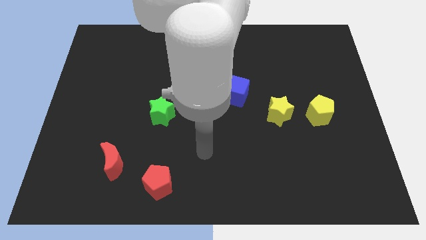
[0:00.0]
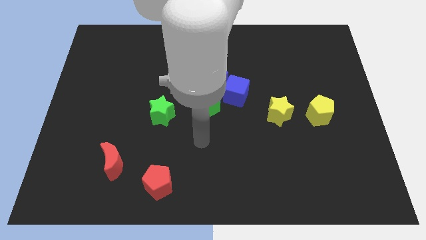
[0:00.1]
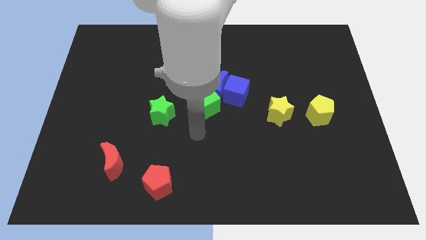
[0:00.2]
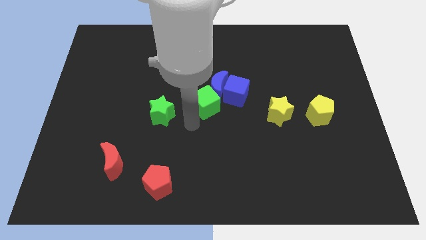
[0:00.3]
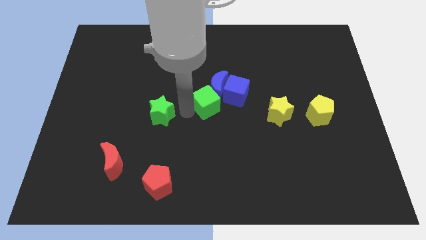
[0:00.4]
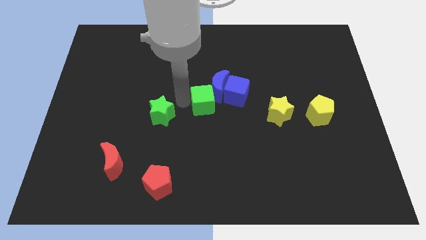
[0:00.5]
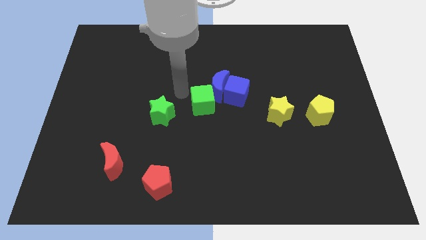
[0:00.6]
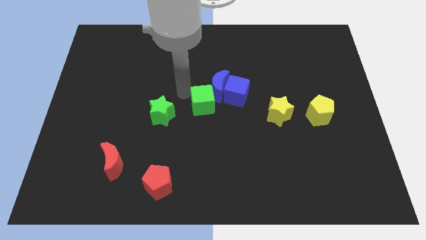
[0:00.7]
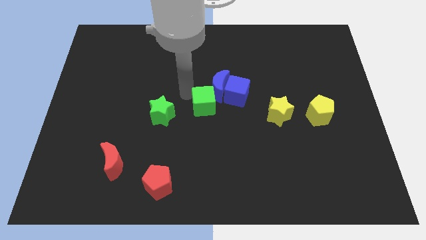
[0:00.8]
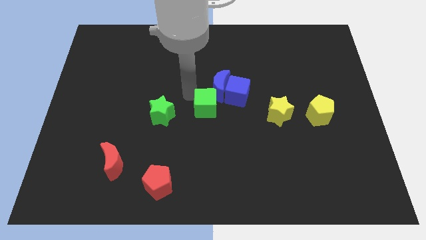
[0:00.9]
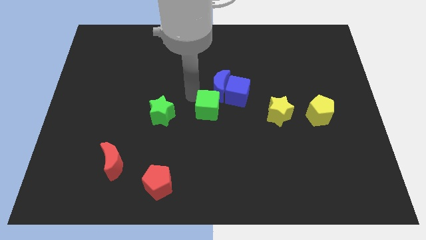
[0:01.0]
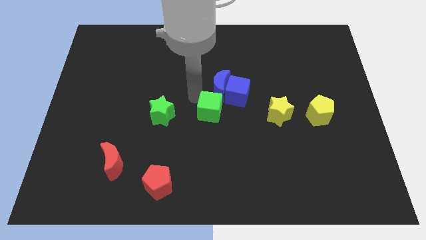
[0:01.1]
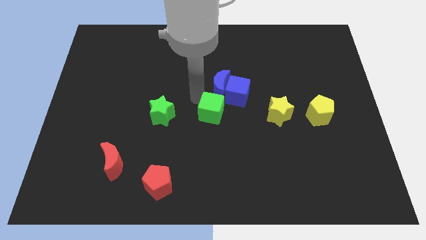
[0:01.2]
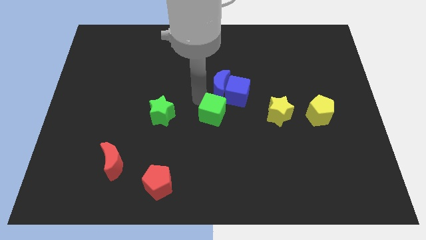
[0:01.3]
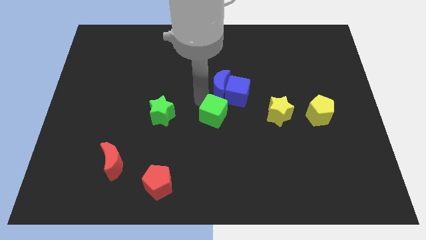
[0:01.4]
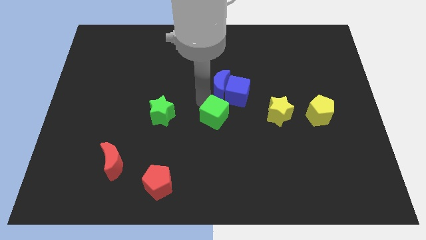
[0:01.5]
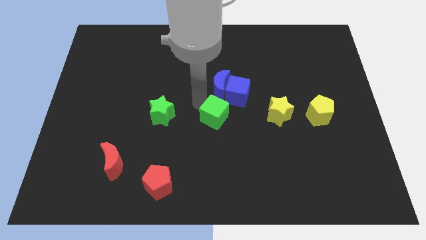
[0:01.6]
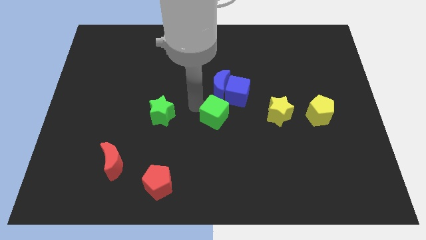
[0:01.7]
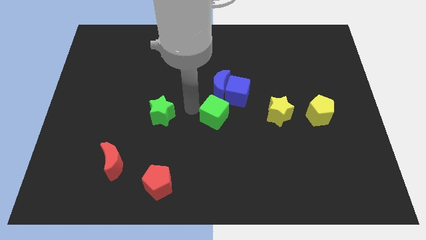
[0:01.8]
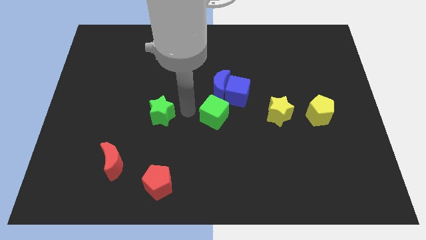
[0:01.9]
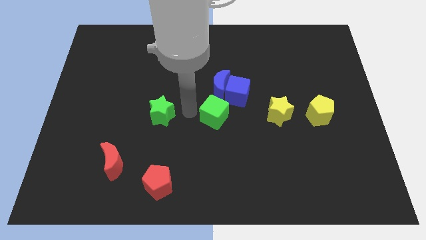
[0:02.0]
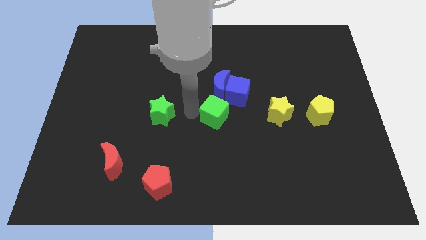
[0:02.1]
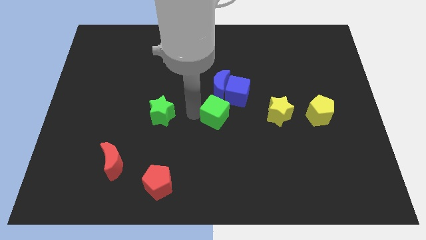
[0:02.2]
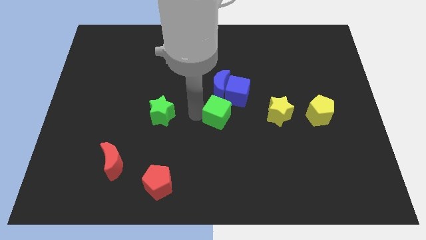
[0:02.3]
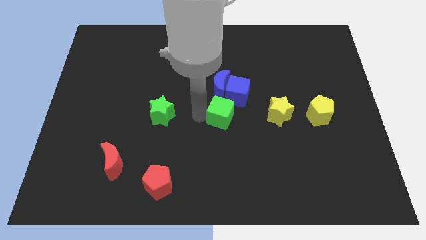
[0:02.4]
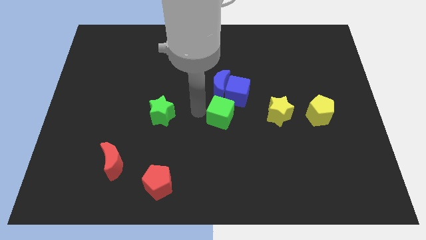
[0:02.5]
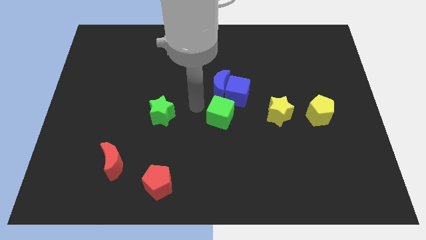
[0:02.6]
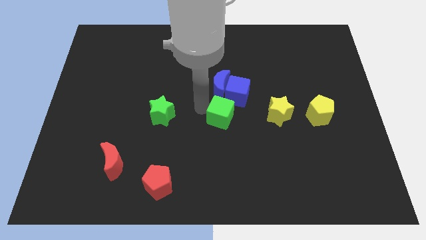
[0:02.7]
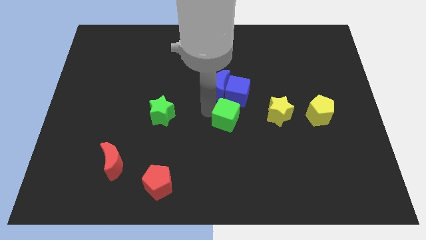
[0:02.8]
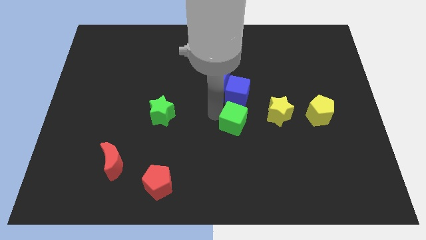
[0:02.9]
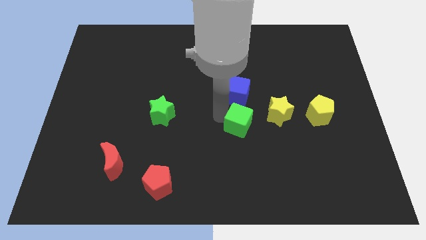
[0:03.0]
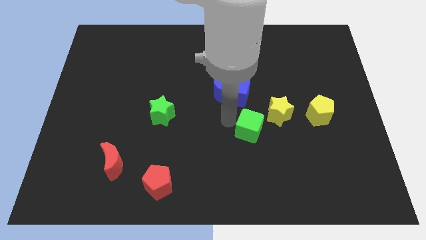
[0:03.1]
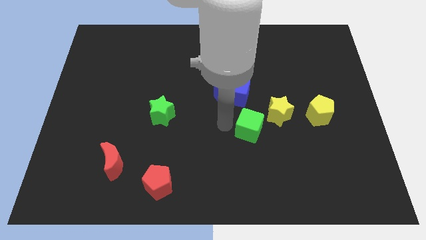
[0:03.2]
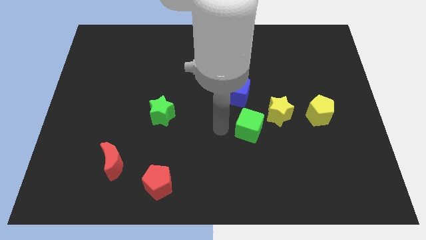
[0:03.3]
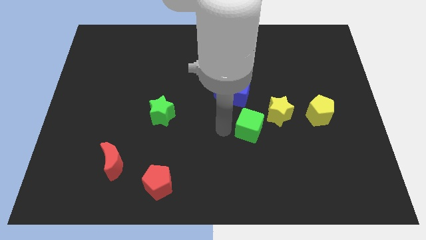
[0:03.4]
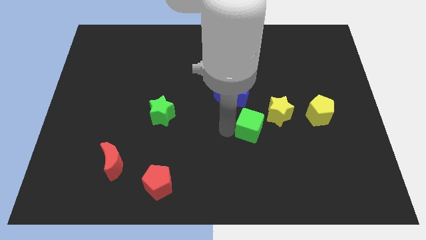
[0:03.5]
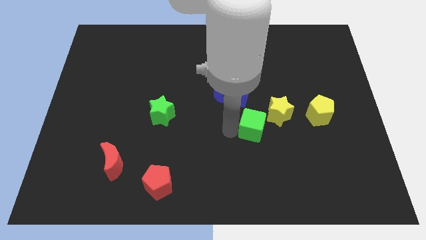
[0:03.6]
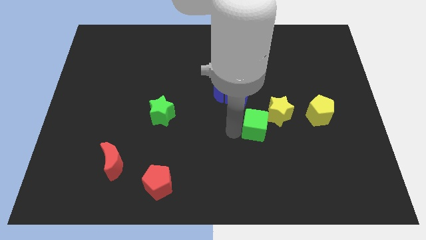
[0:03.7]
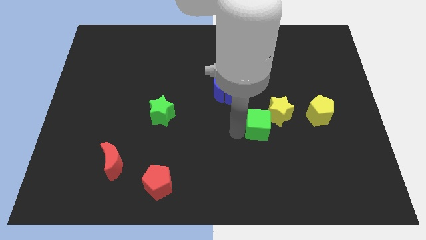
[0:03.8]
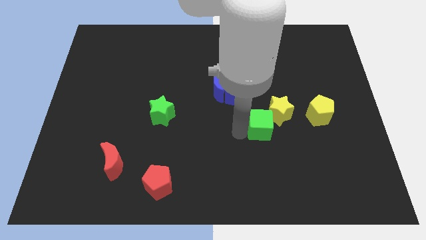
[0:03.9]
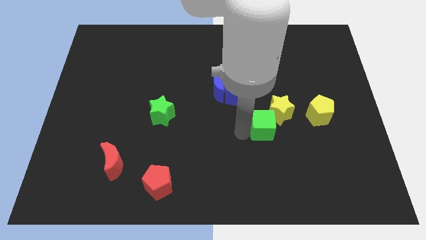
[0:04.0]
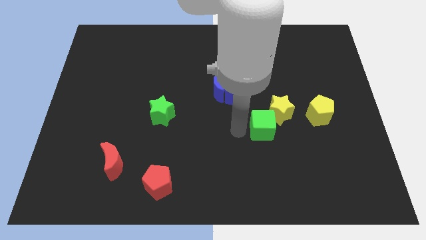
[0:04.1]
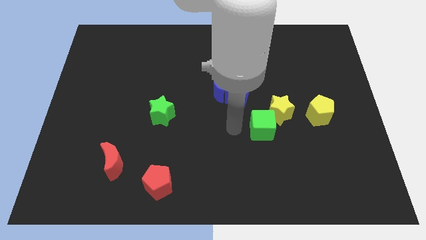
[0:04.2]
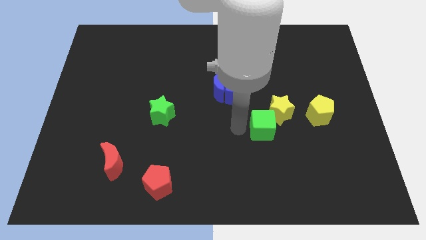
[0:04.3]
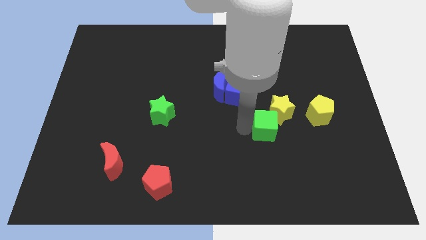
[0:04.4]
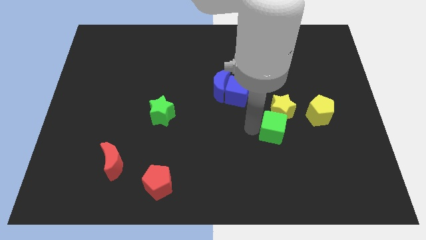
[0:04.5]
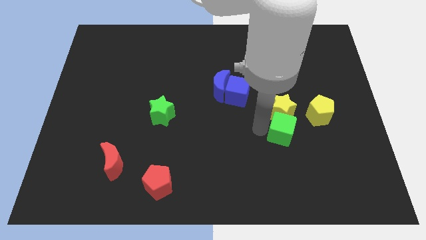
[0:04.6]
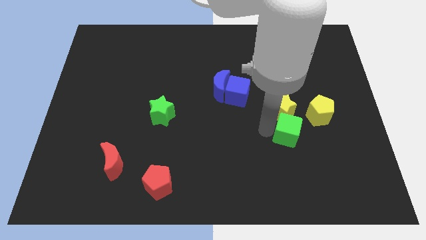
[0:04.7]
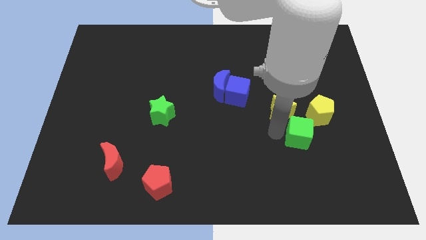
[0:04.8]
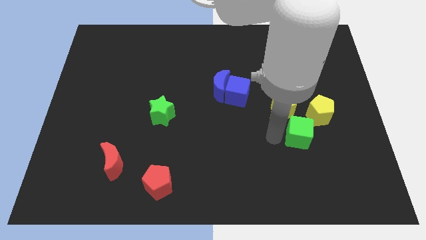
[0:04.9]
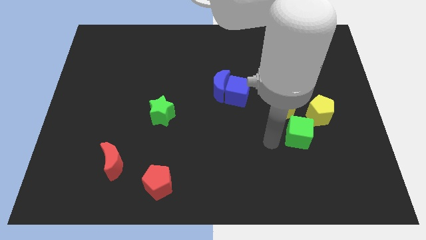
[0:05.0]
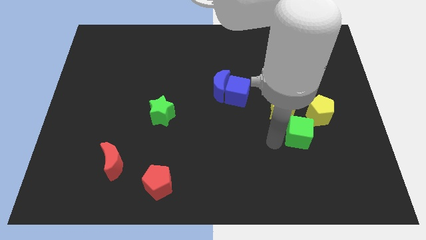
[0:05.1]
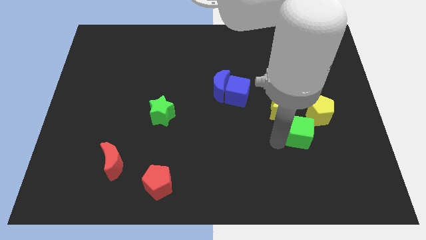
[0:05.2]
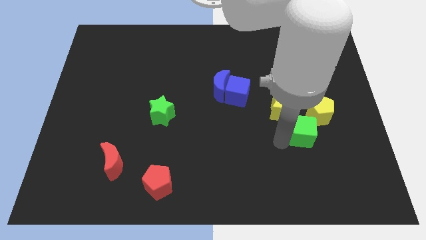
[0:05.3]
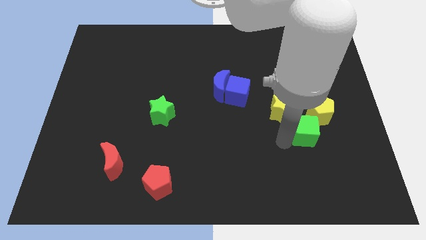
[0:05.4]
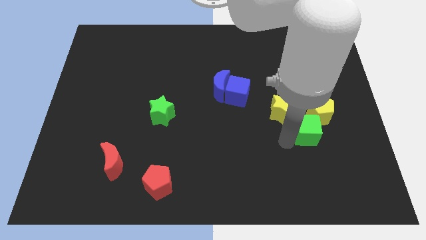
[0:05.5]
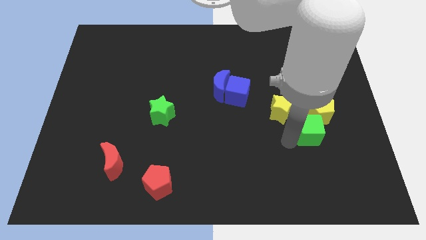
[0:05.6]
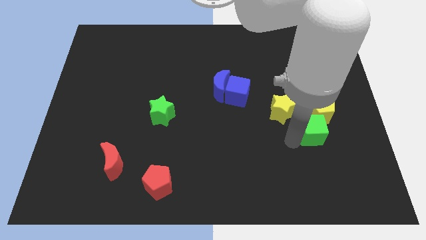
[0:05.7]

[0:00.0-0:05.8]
push the green cube to the yellow pentagon

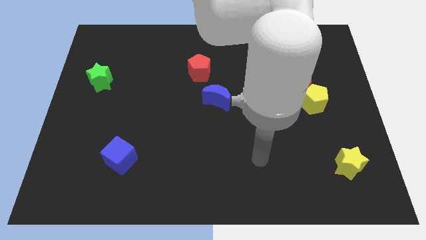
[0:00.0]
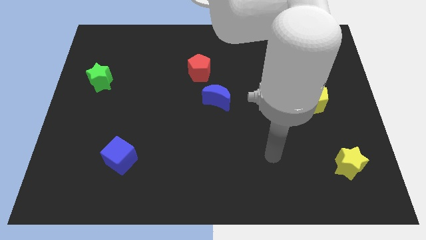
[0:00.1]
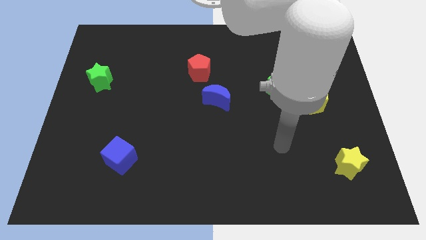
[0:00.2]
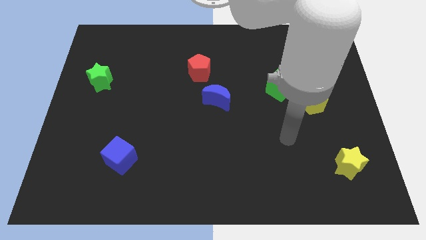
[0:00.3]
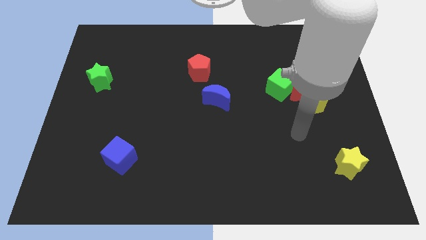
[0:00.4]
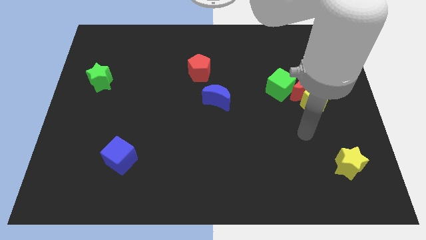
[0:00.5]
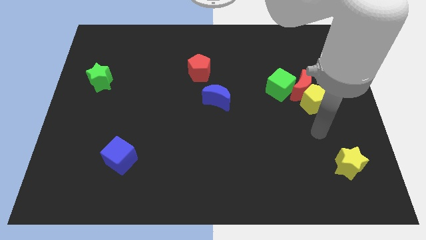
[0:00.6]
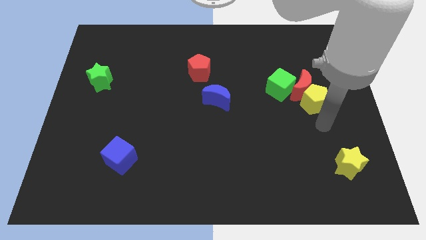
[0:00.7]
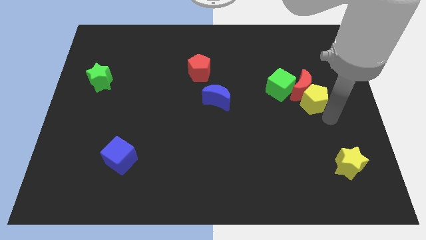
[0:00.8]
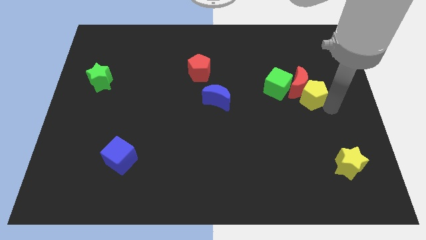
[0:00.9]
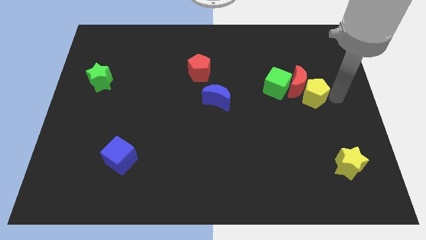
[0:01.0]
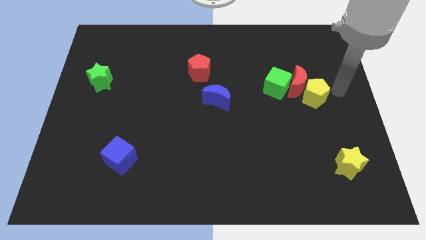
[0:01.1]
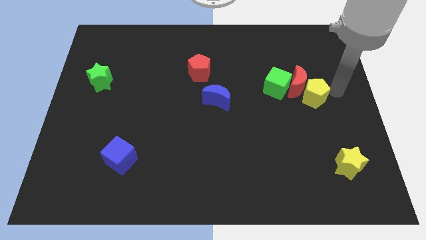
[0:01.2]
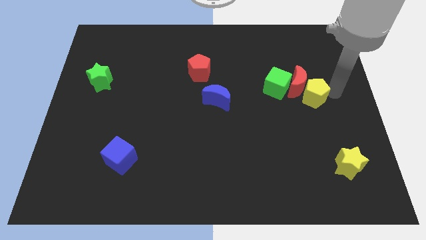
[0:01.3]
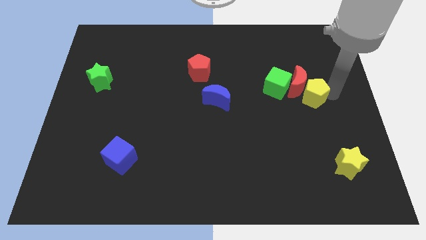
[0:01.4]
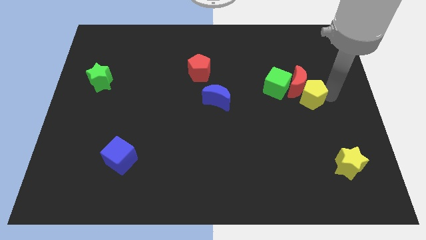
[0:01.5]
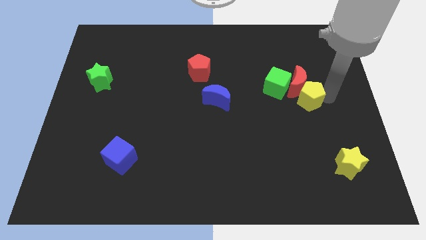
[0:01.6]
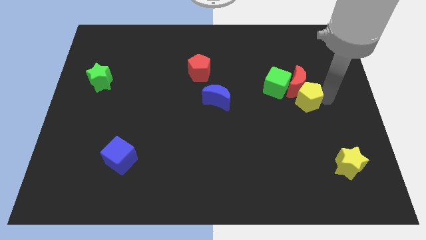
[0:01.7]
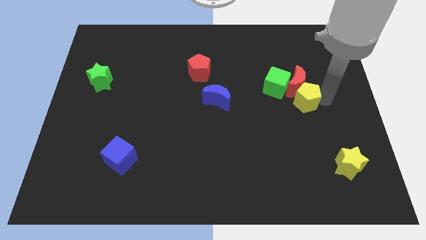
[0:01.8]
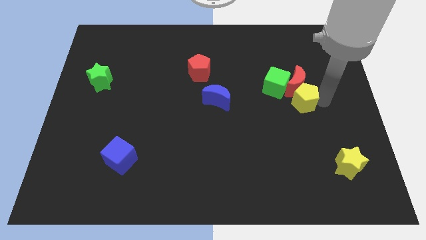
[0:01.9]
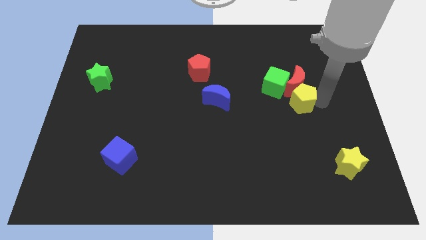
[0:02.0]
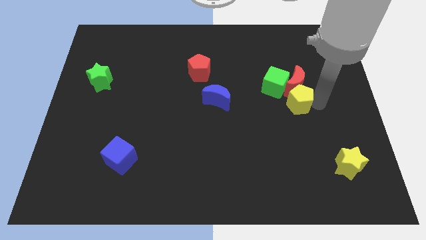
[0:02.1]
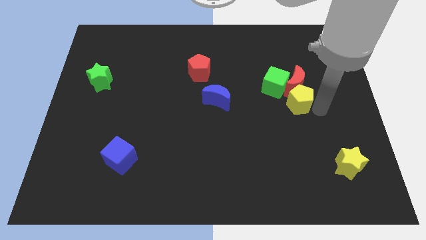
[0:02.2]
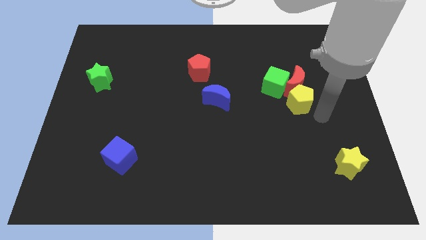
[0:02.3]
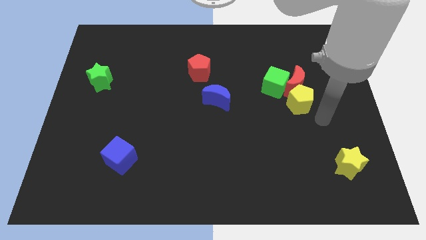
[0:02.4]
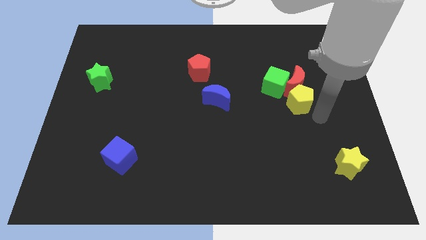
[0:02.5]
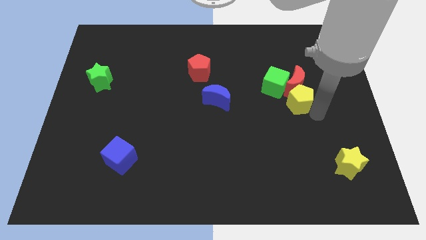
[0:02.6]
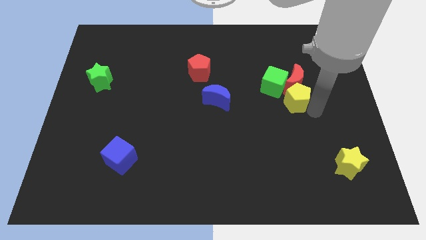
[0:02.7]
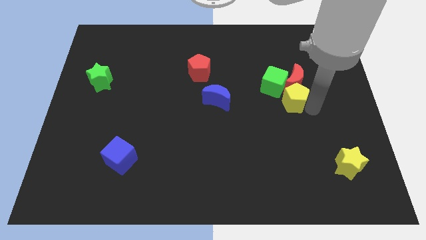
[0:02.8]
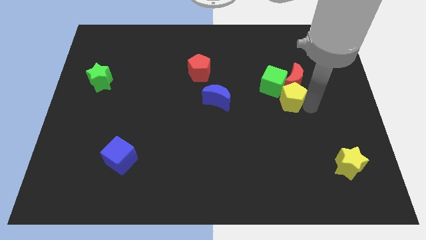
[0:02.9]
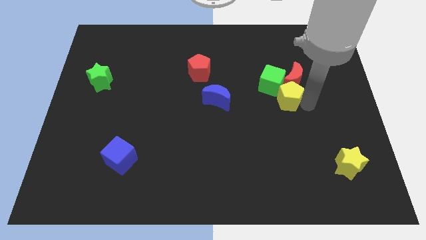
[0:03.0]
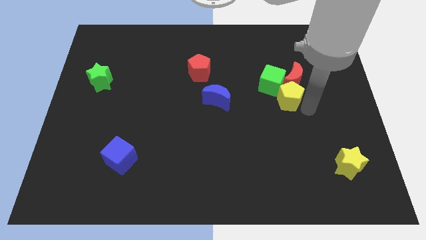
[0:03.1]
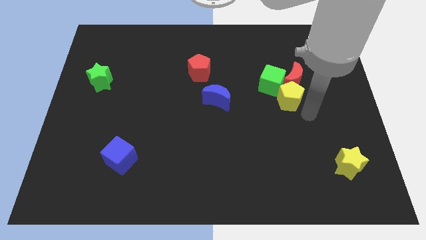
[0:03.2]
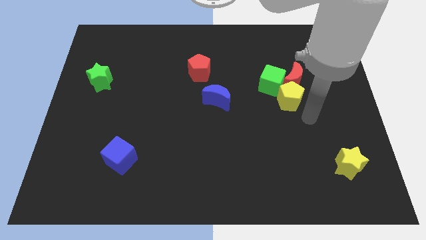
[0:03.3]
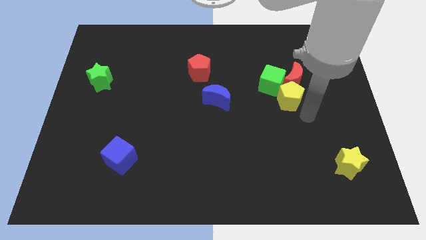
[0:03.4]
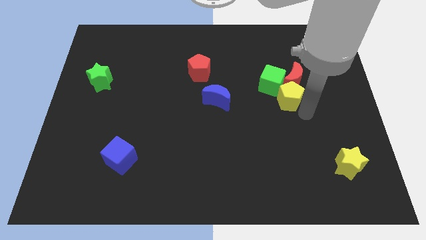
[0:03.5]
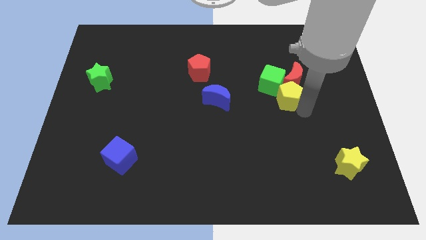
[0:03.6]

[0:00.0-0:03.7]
slide the yellow pentagon to the green cube
